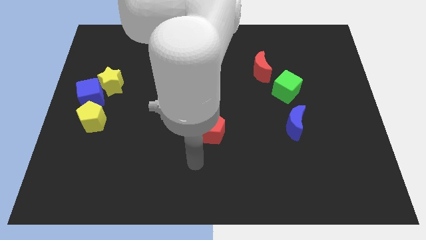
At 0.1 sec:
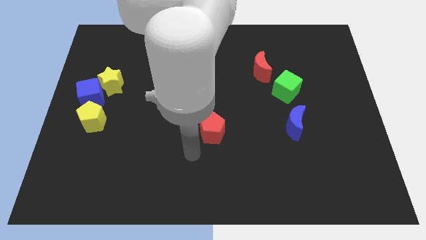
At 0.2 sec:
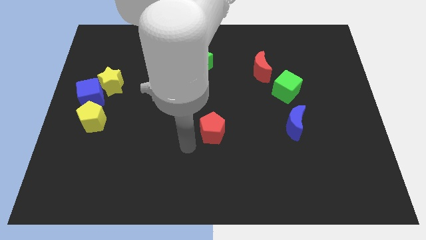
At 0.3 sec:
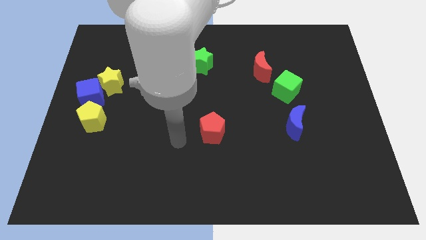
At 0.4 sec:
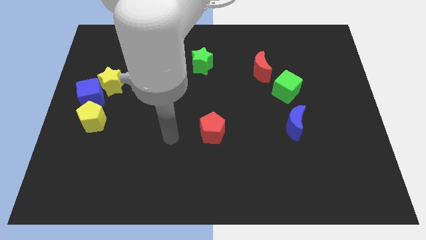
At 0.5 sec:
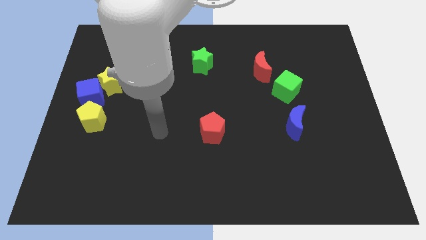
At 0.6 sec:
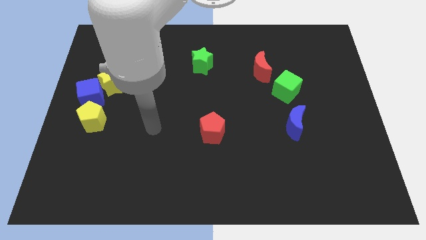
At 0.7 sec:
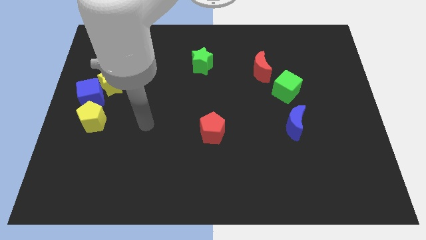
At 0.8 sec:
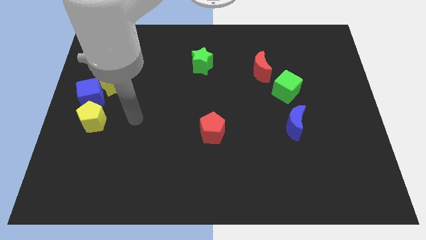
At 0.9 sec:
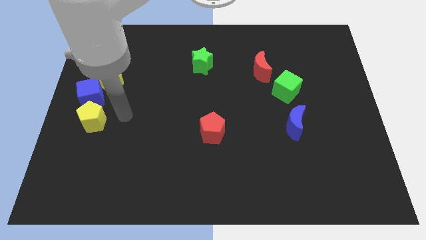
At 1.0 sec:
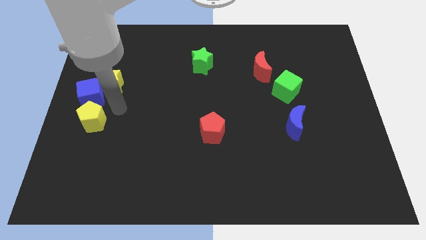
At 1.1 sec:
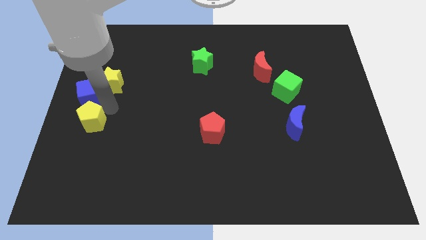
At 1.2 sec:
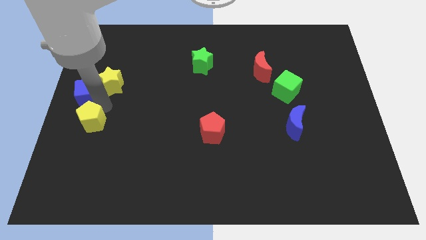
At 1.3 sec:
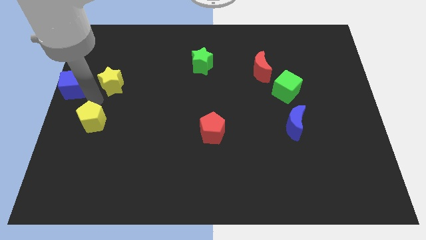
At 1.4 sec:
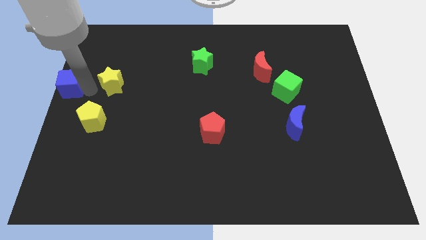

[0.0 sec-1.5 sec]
move the yellow star away from the blue cube

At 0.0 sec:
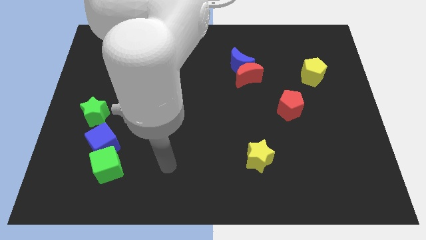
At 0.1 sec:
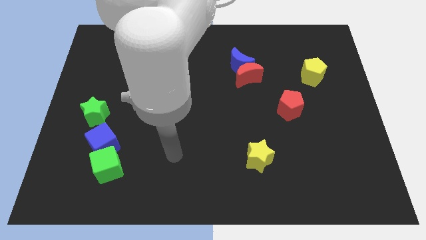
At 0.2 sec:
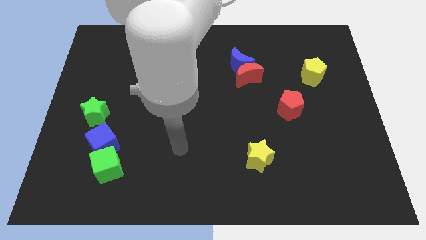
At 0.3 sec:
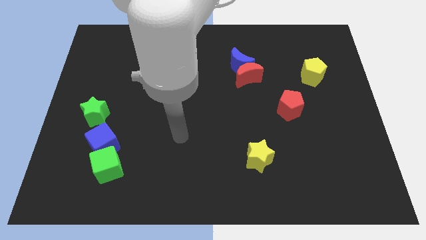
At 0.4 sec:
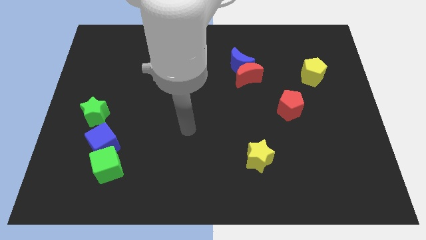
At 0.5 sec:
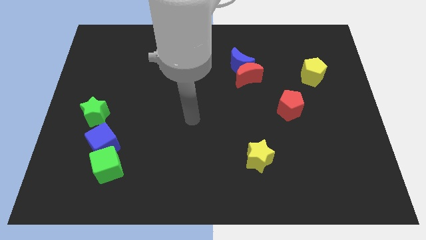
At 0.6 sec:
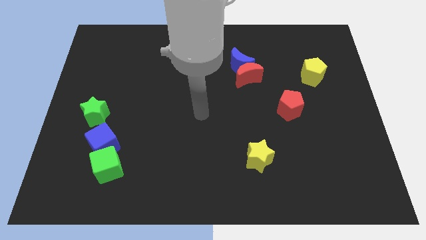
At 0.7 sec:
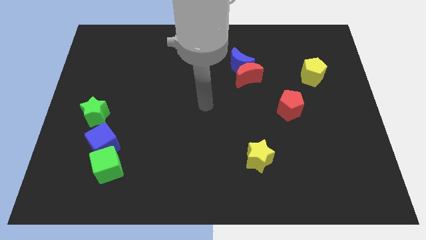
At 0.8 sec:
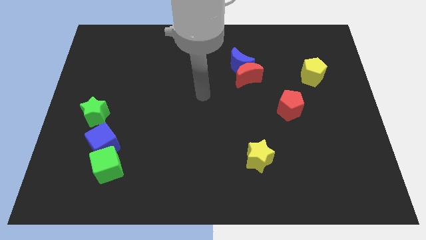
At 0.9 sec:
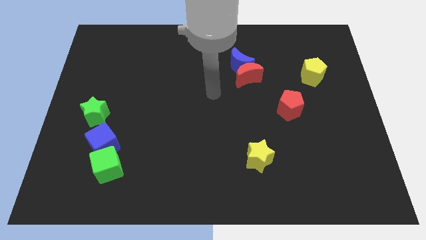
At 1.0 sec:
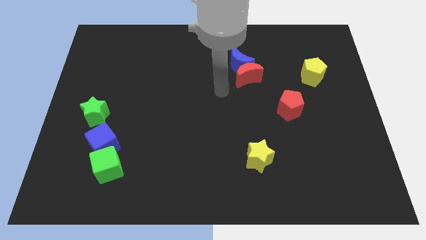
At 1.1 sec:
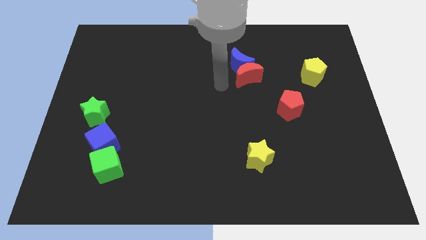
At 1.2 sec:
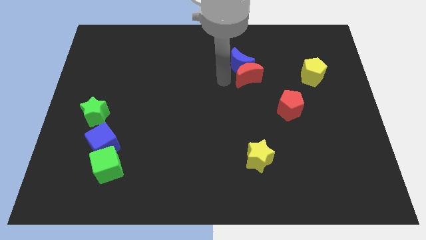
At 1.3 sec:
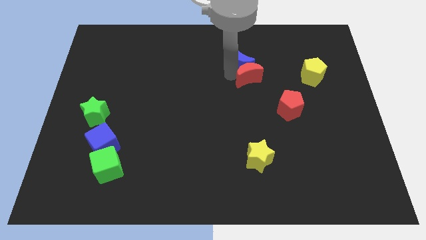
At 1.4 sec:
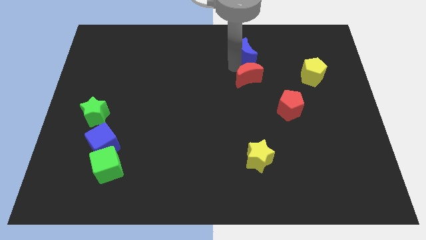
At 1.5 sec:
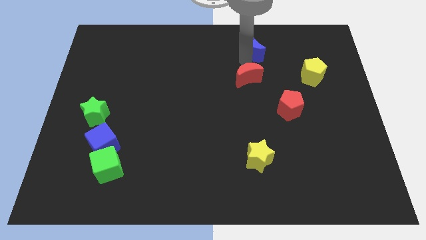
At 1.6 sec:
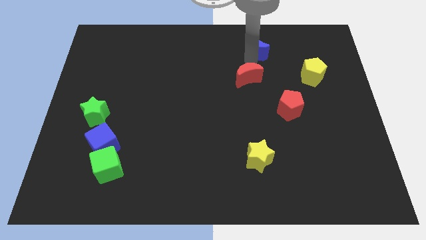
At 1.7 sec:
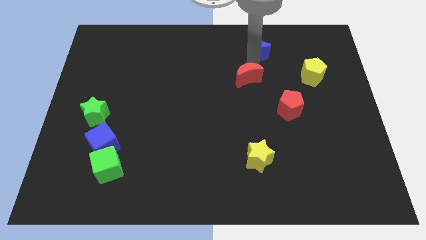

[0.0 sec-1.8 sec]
separate the red moon from the blue moon

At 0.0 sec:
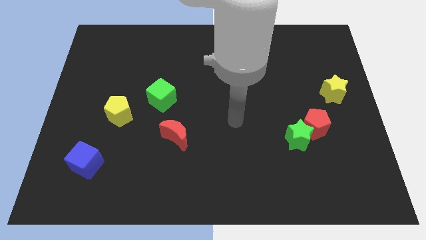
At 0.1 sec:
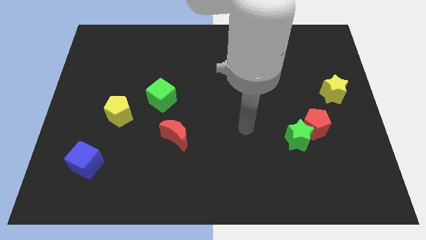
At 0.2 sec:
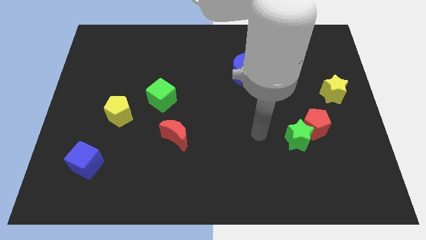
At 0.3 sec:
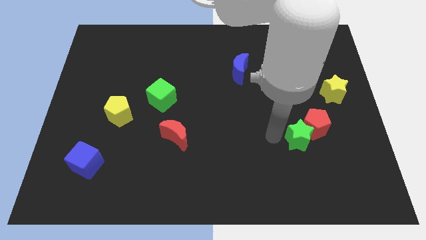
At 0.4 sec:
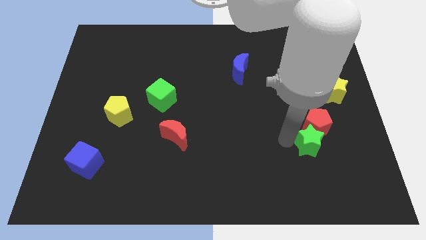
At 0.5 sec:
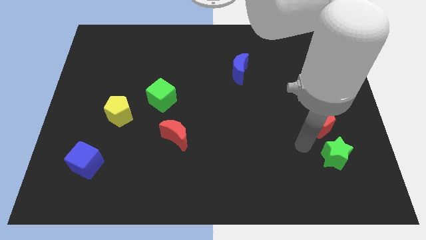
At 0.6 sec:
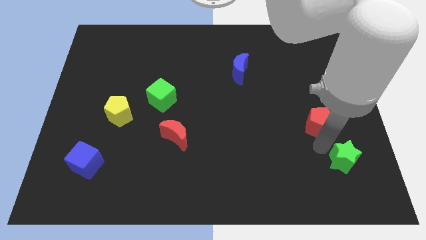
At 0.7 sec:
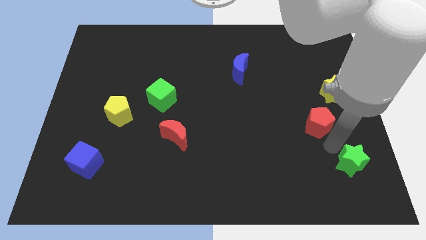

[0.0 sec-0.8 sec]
pull the red pentagon apart from the green star

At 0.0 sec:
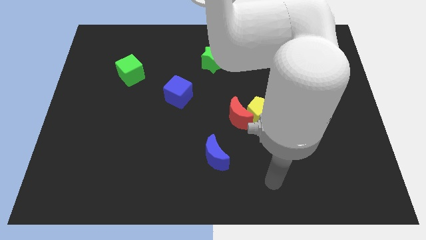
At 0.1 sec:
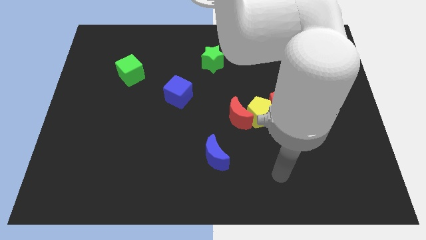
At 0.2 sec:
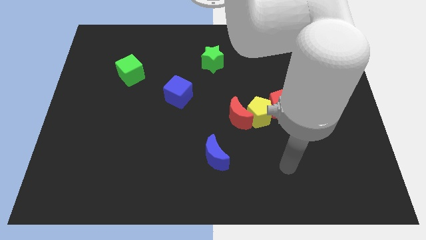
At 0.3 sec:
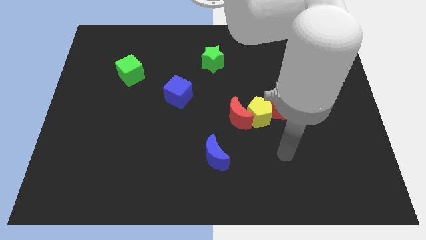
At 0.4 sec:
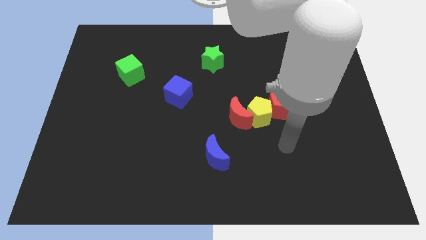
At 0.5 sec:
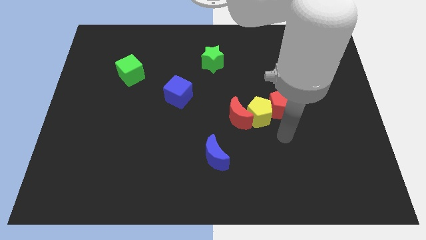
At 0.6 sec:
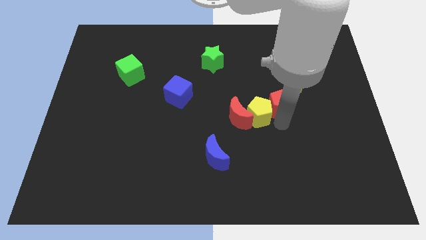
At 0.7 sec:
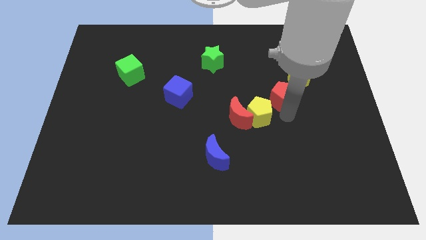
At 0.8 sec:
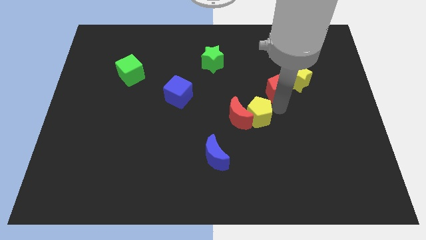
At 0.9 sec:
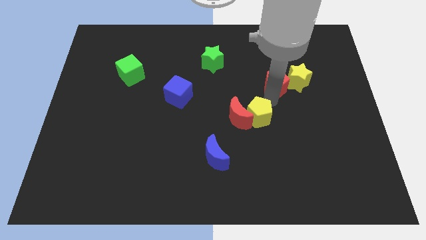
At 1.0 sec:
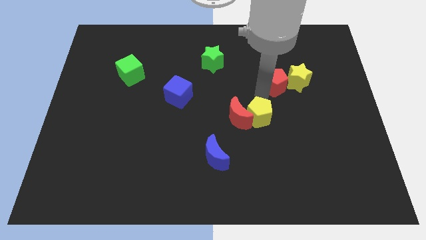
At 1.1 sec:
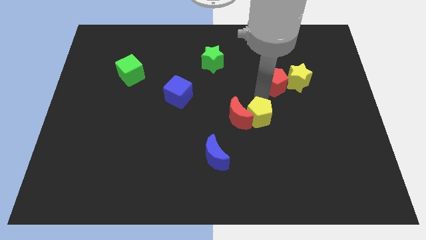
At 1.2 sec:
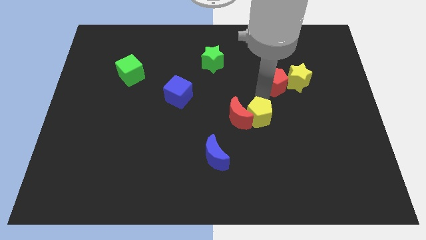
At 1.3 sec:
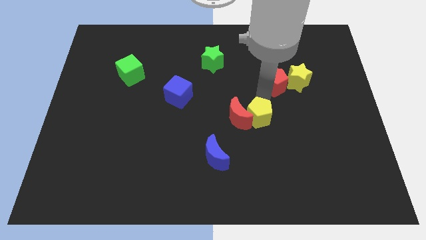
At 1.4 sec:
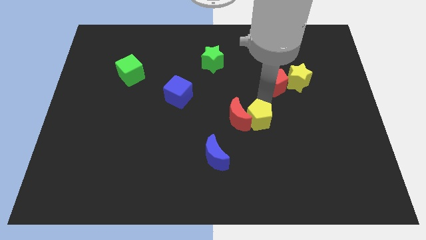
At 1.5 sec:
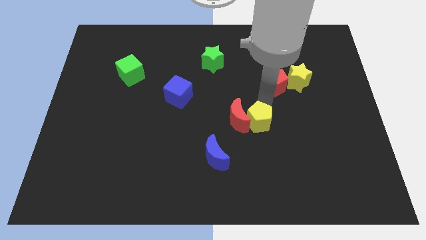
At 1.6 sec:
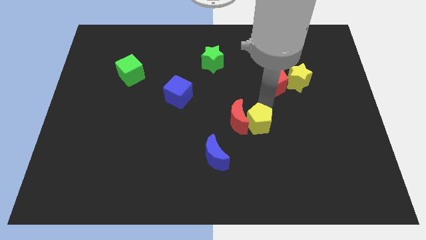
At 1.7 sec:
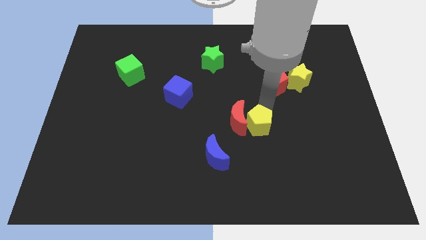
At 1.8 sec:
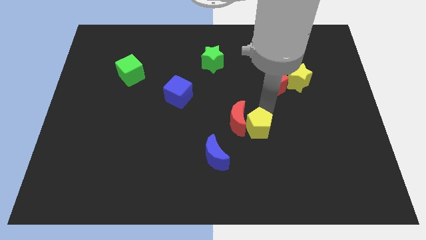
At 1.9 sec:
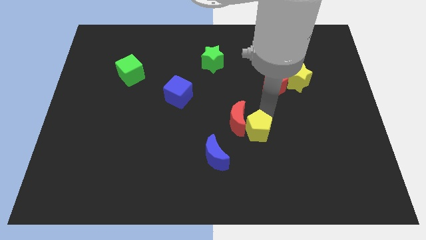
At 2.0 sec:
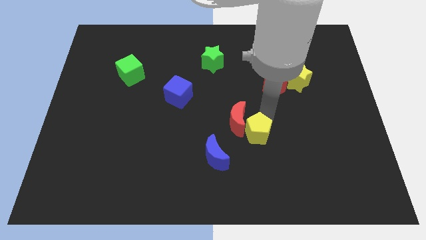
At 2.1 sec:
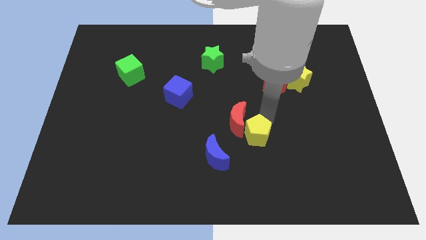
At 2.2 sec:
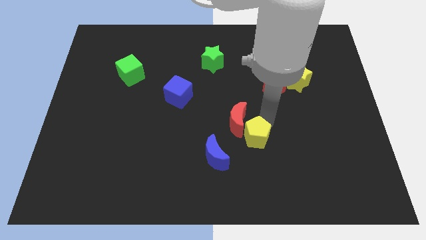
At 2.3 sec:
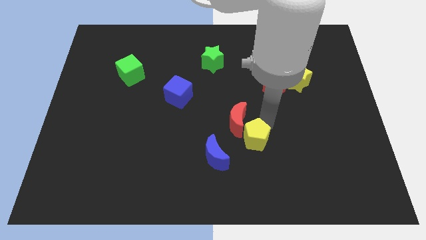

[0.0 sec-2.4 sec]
pull the yellow pentagon apart from the red moon and red pentagon

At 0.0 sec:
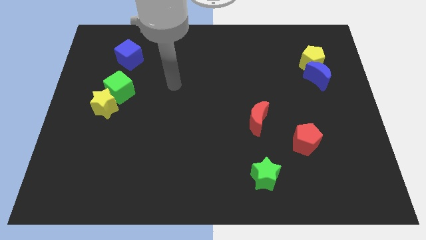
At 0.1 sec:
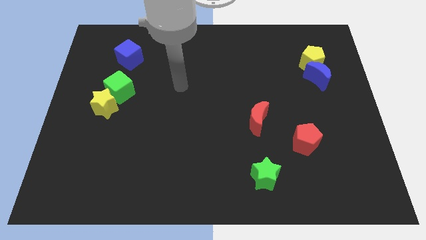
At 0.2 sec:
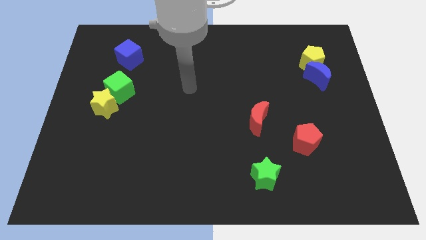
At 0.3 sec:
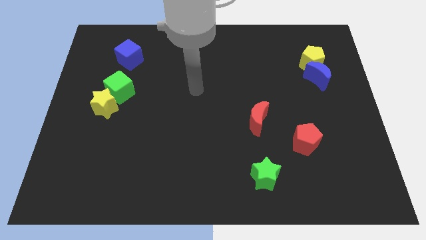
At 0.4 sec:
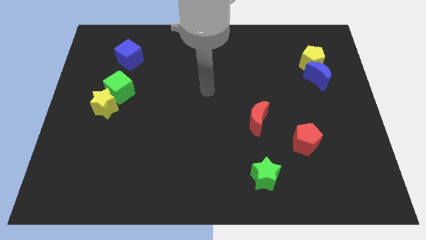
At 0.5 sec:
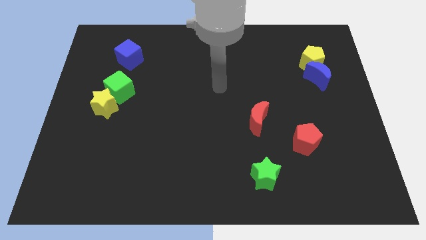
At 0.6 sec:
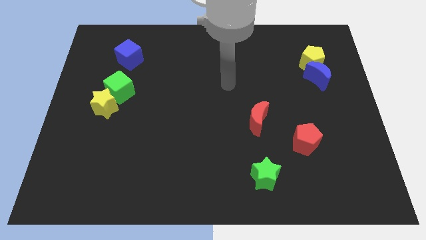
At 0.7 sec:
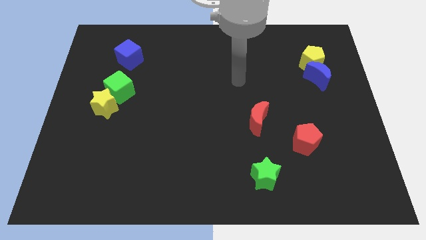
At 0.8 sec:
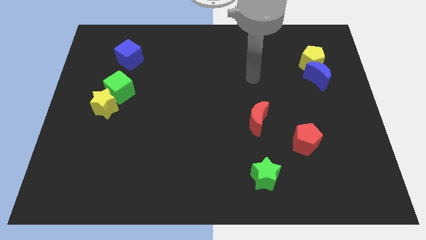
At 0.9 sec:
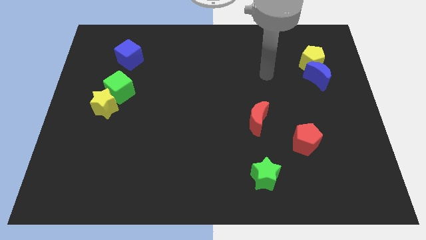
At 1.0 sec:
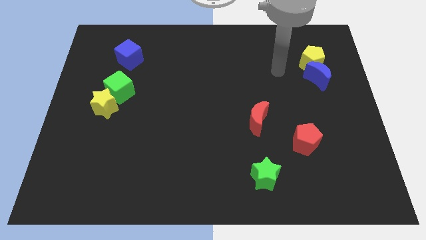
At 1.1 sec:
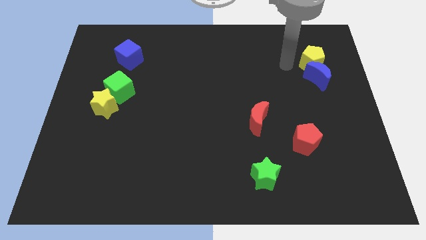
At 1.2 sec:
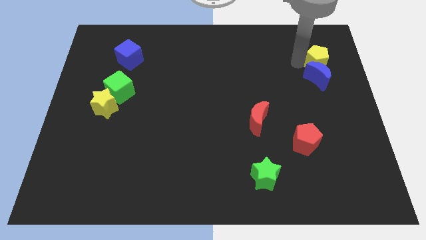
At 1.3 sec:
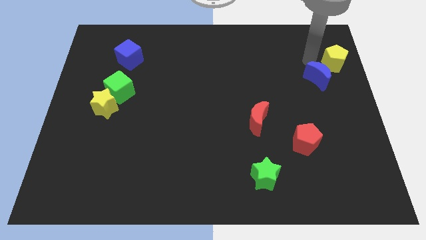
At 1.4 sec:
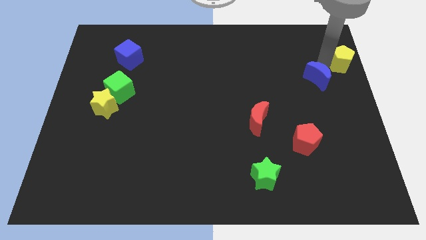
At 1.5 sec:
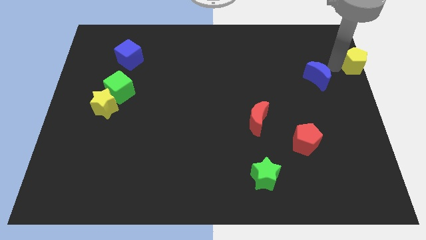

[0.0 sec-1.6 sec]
pull the blue moon apart from the yellow pentagon

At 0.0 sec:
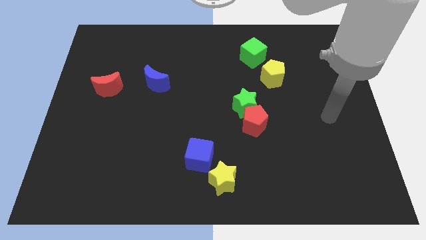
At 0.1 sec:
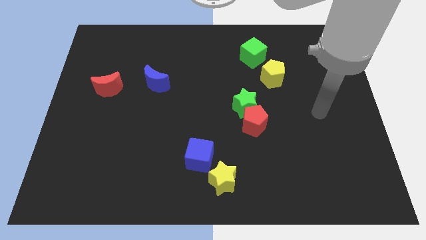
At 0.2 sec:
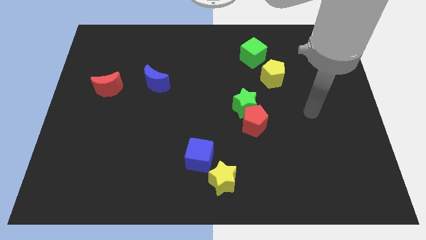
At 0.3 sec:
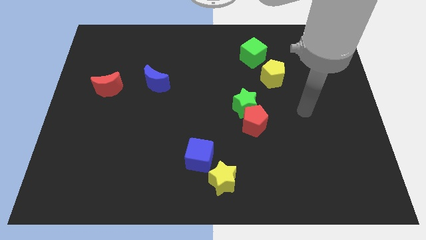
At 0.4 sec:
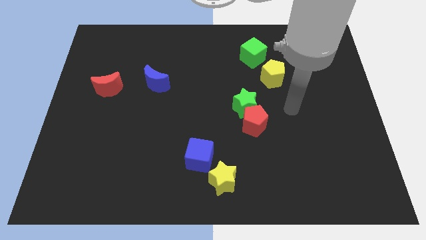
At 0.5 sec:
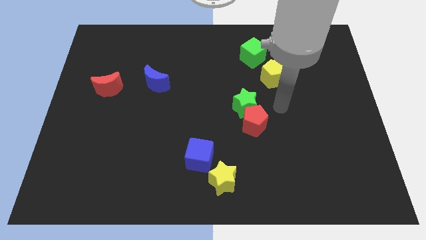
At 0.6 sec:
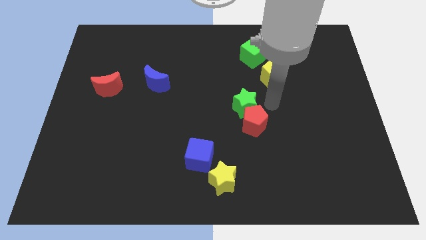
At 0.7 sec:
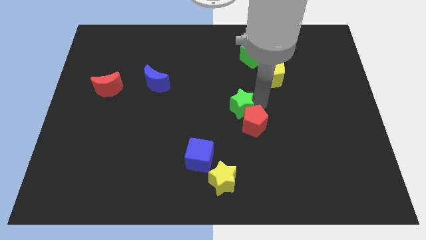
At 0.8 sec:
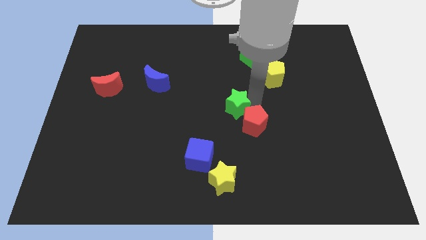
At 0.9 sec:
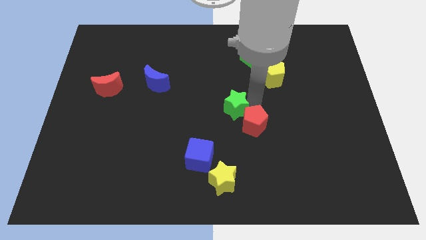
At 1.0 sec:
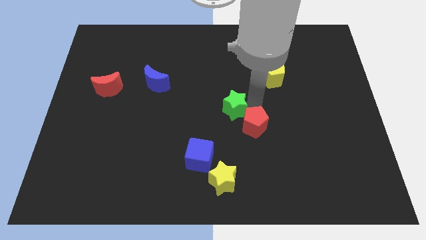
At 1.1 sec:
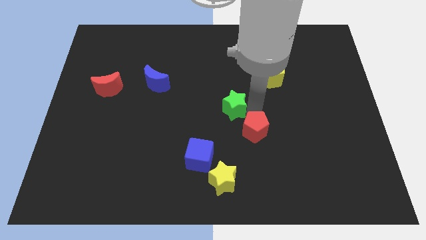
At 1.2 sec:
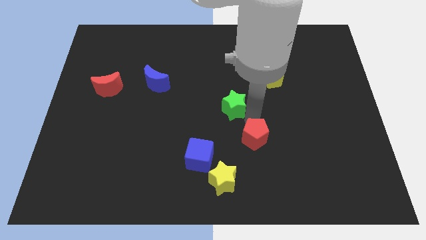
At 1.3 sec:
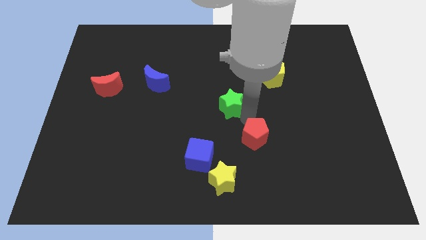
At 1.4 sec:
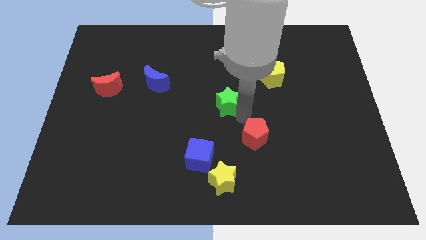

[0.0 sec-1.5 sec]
separate the red pentagon from the green star
